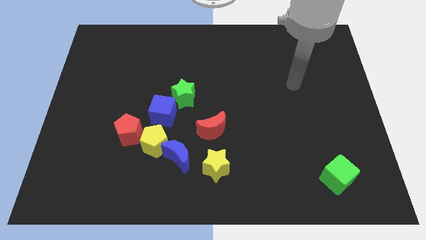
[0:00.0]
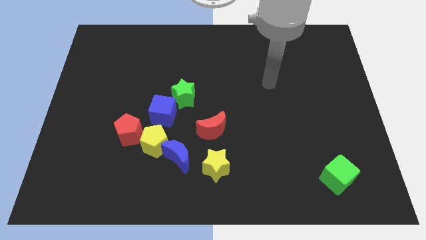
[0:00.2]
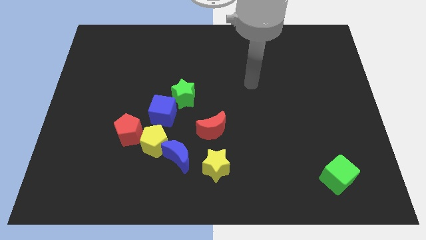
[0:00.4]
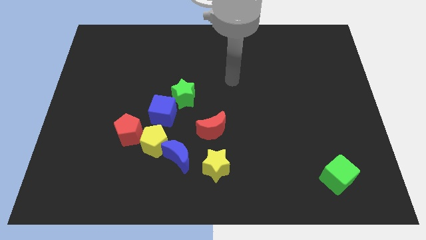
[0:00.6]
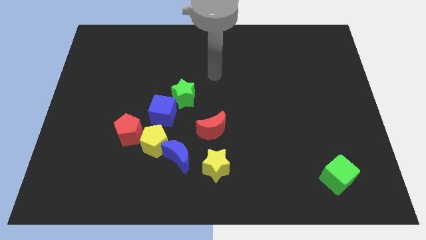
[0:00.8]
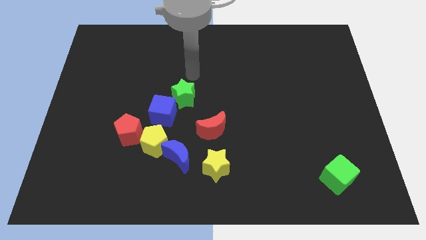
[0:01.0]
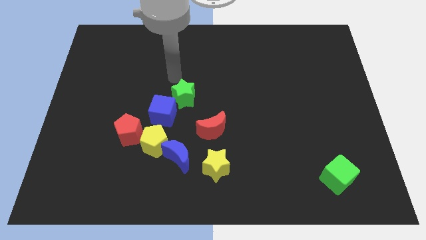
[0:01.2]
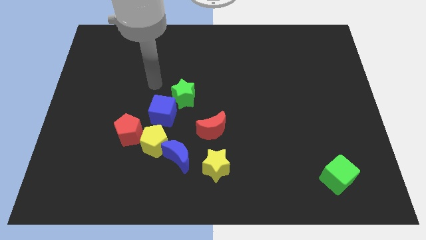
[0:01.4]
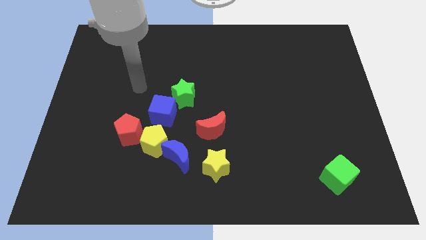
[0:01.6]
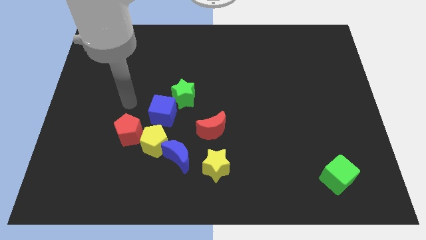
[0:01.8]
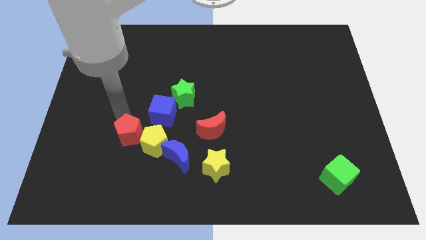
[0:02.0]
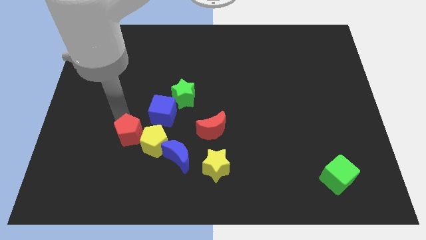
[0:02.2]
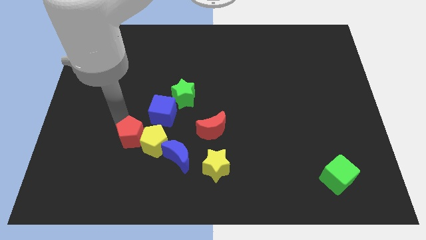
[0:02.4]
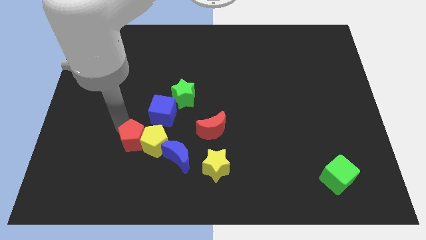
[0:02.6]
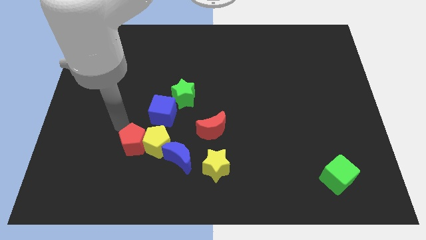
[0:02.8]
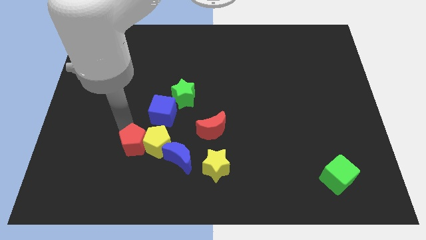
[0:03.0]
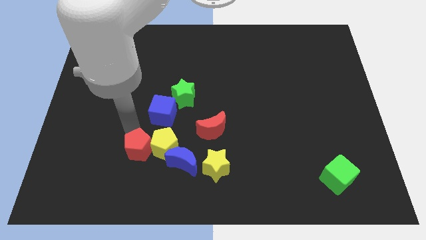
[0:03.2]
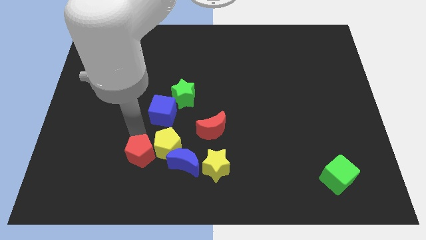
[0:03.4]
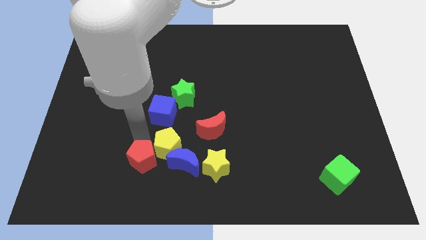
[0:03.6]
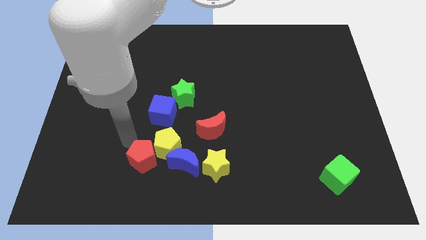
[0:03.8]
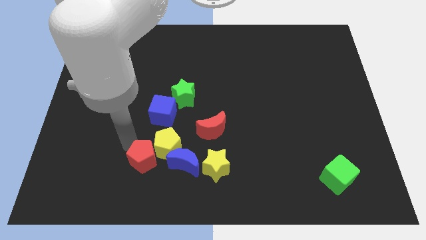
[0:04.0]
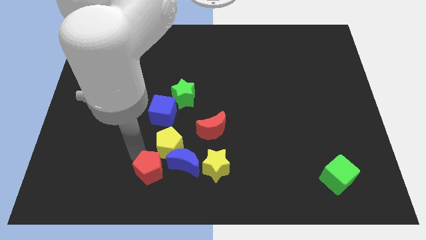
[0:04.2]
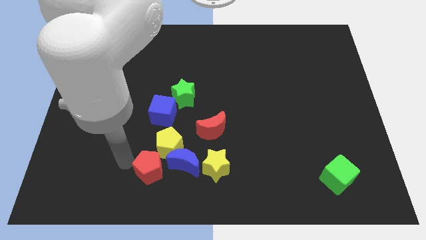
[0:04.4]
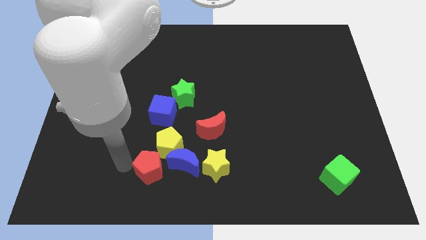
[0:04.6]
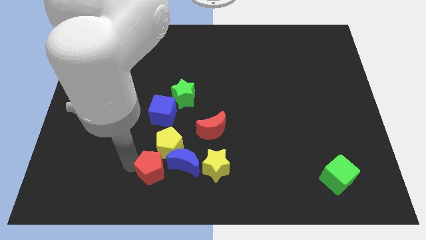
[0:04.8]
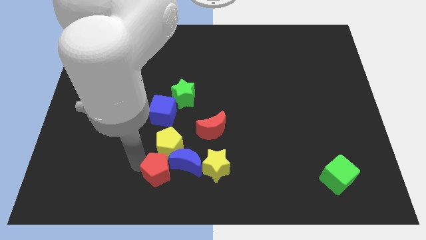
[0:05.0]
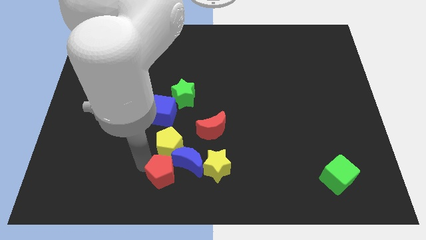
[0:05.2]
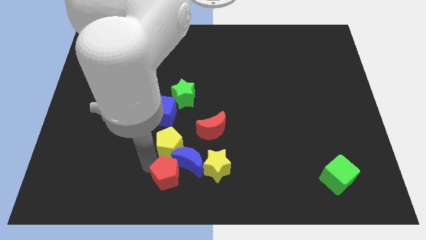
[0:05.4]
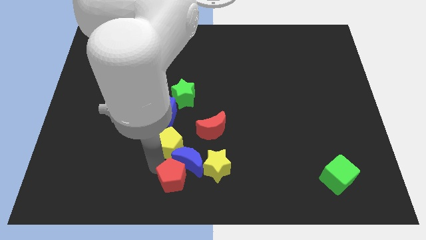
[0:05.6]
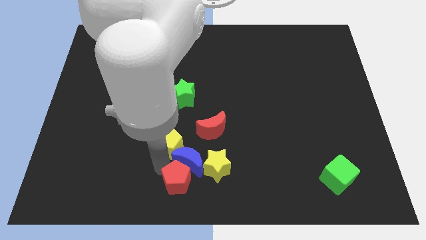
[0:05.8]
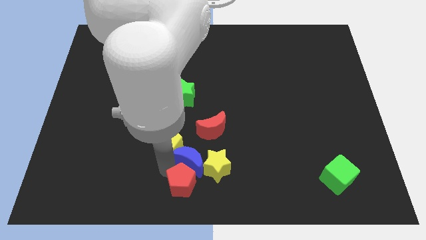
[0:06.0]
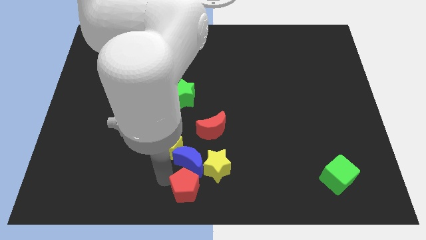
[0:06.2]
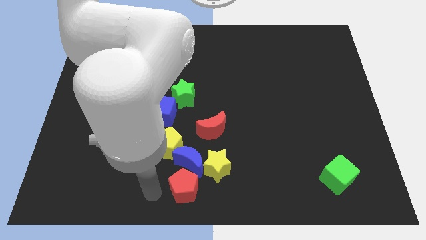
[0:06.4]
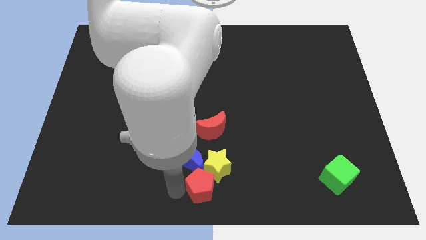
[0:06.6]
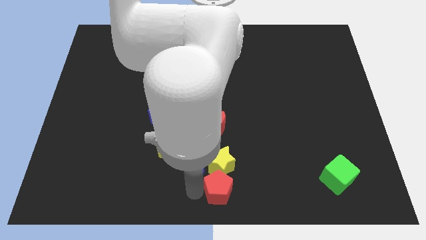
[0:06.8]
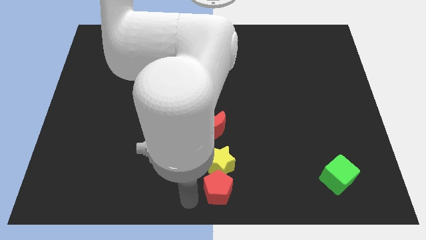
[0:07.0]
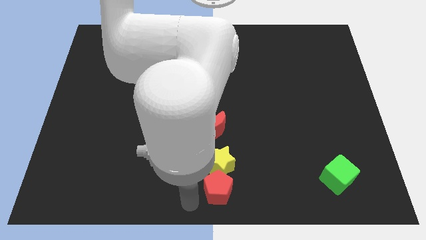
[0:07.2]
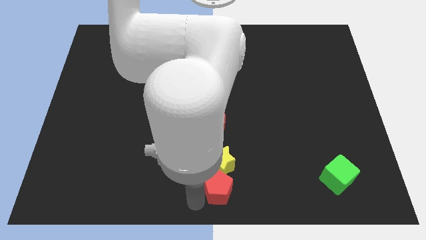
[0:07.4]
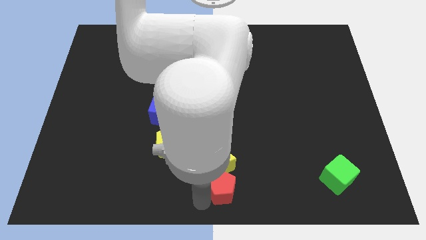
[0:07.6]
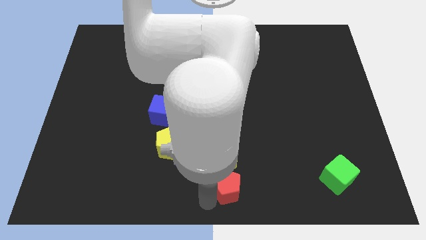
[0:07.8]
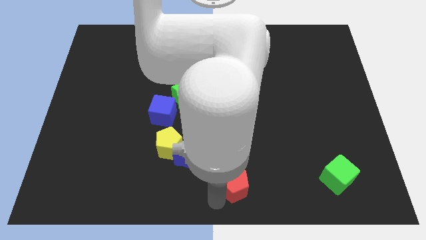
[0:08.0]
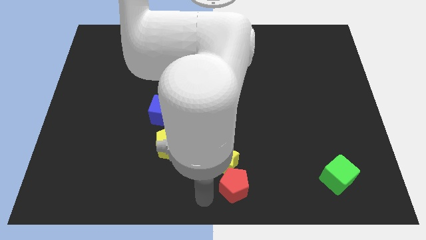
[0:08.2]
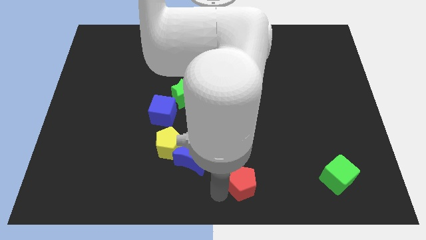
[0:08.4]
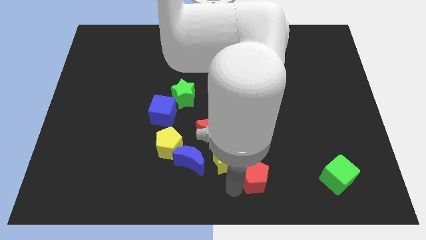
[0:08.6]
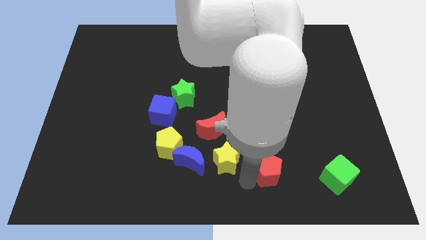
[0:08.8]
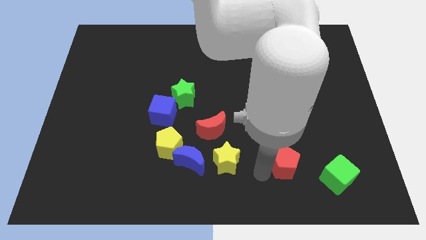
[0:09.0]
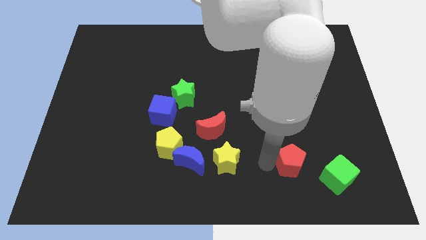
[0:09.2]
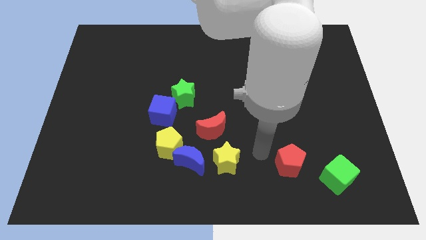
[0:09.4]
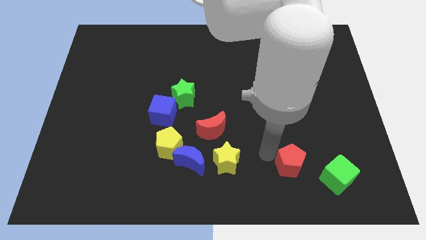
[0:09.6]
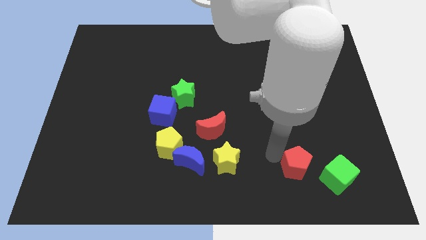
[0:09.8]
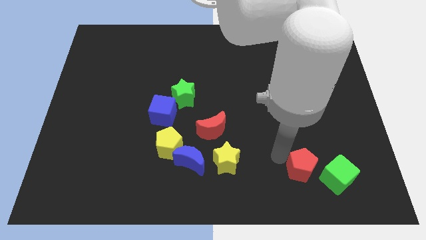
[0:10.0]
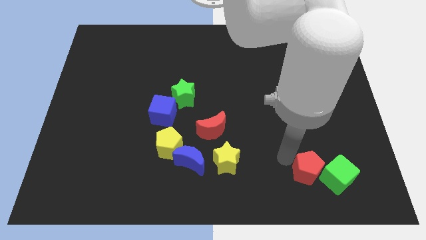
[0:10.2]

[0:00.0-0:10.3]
put the red pentagon next to the green cube

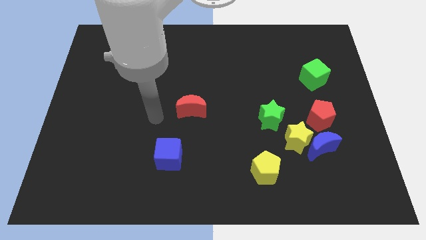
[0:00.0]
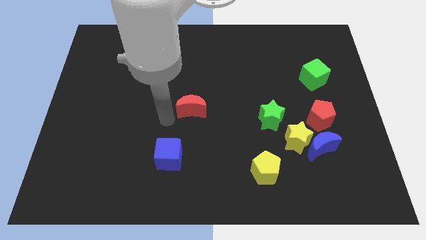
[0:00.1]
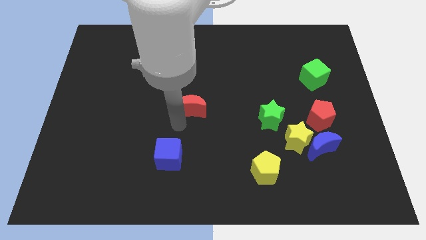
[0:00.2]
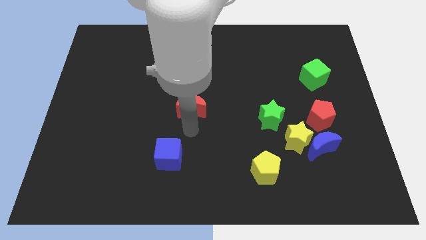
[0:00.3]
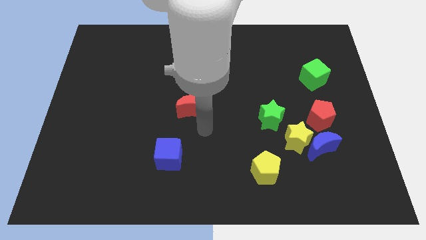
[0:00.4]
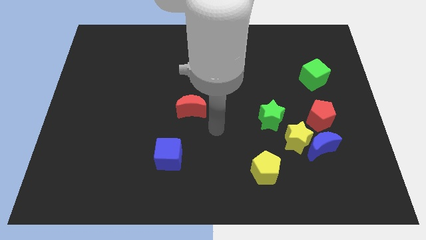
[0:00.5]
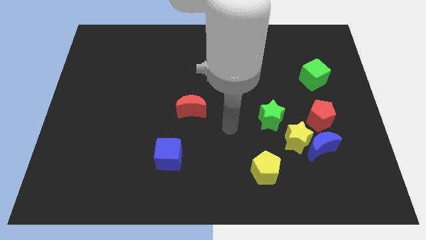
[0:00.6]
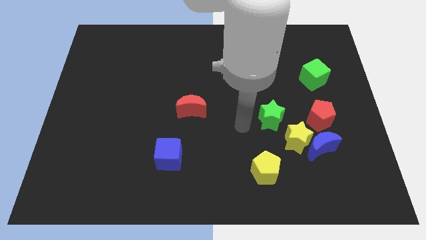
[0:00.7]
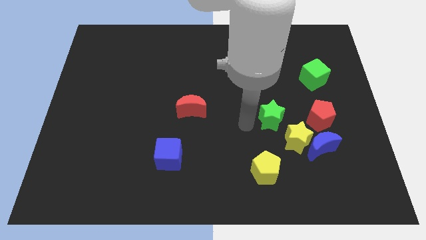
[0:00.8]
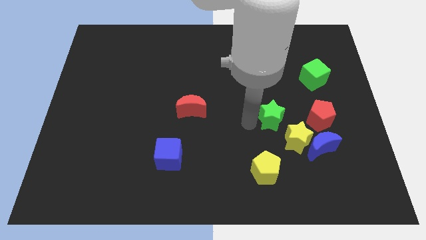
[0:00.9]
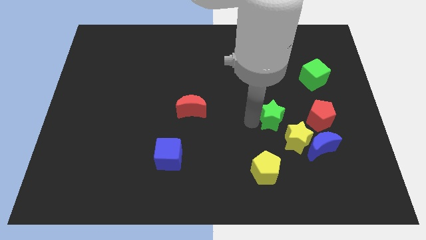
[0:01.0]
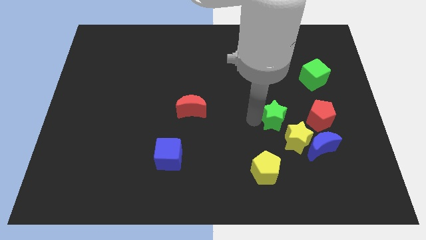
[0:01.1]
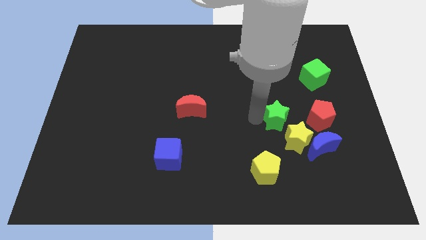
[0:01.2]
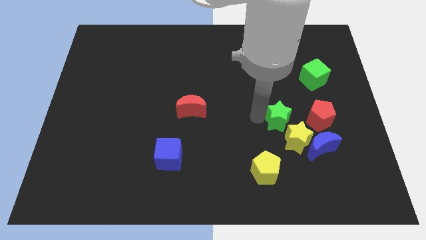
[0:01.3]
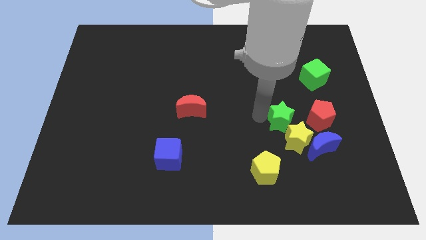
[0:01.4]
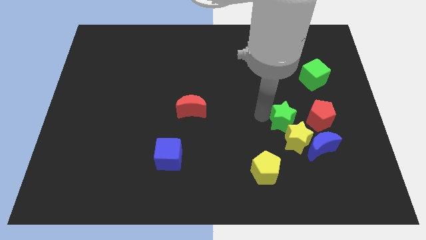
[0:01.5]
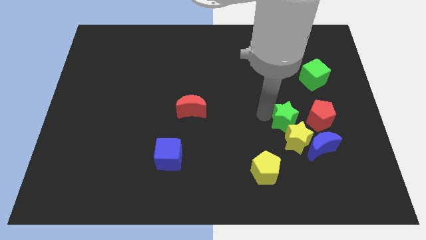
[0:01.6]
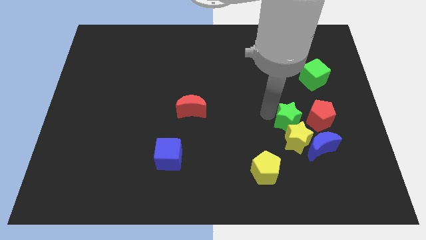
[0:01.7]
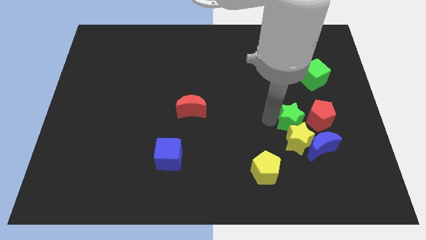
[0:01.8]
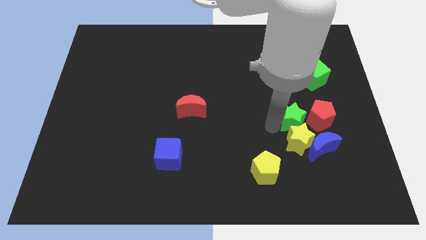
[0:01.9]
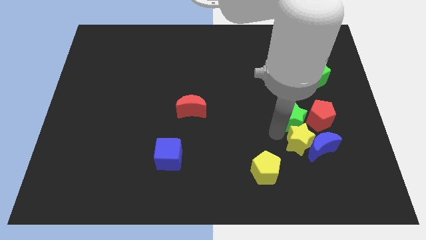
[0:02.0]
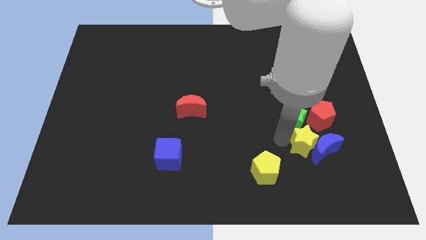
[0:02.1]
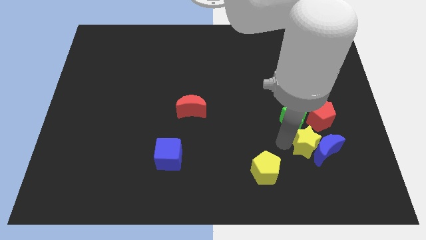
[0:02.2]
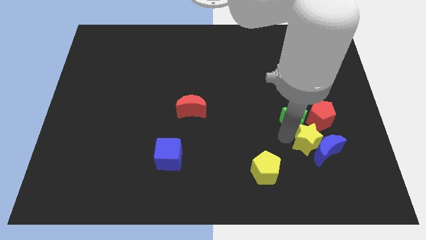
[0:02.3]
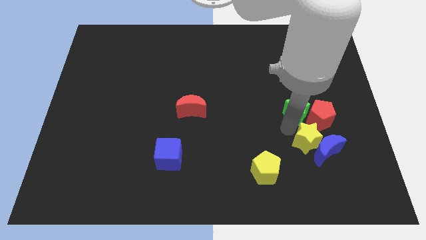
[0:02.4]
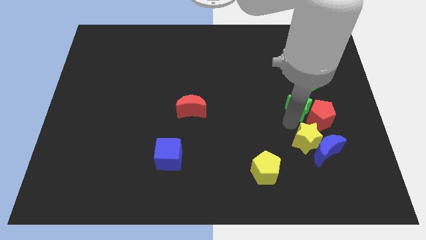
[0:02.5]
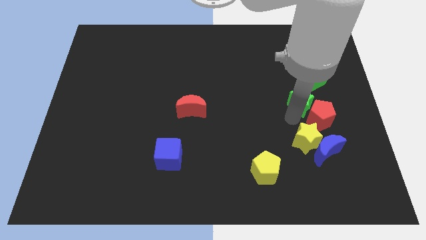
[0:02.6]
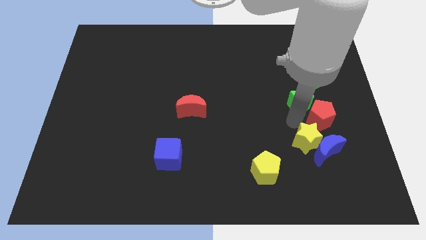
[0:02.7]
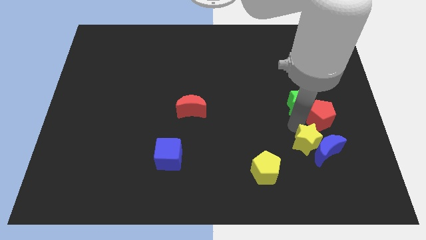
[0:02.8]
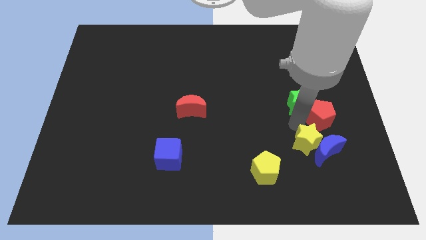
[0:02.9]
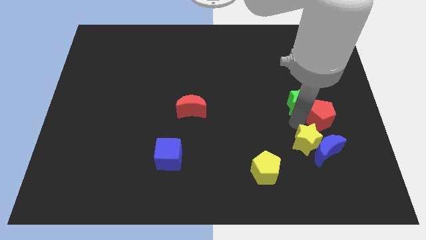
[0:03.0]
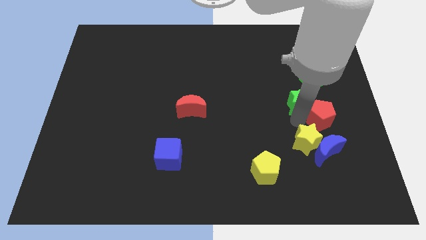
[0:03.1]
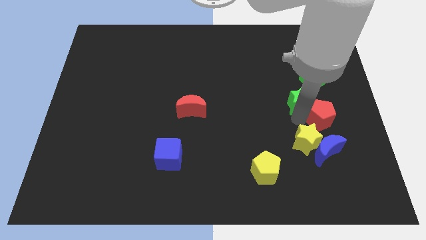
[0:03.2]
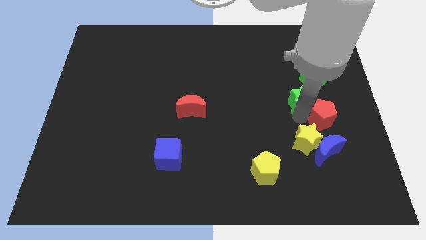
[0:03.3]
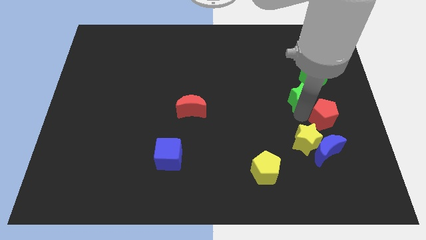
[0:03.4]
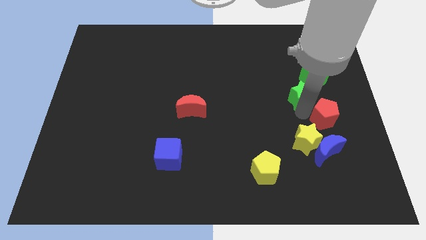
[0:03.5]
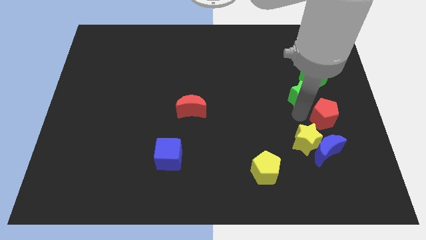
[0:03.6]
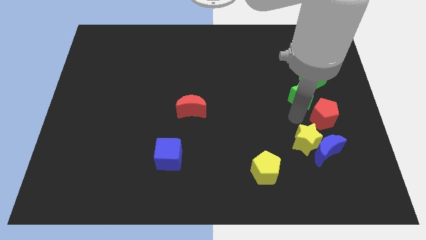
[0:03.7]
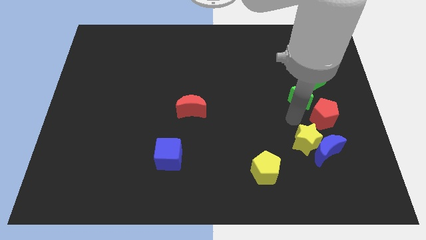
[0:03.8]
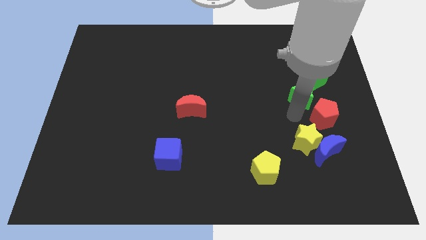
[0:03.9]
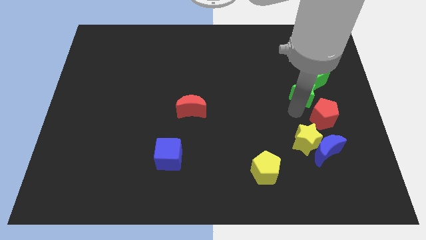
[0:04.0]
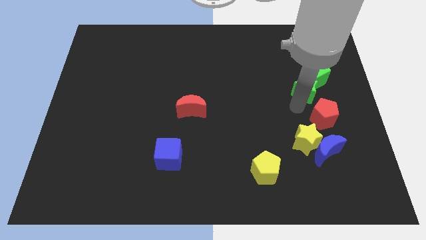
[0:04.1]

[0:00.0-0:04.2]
slide the green star to the green cube
